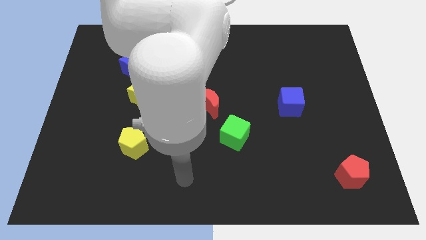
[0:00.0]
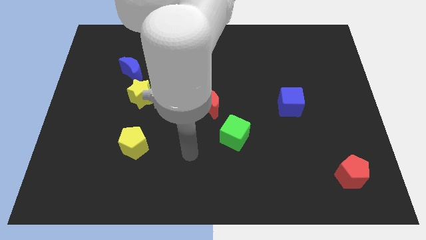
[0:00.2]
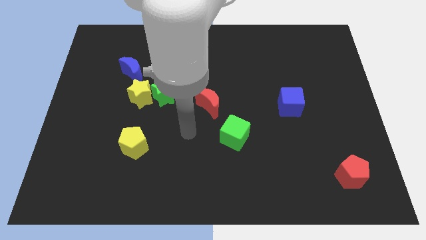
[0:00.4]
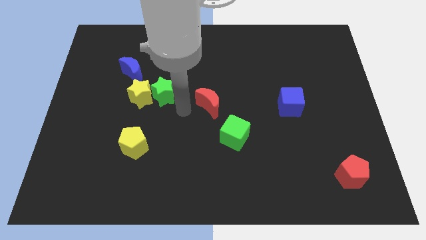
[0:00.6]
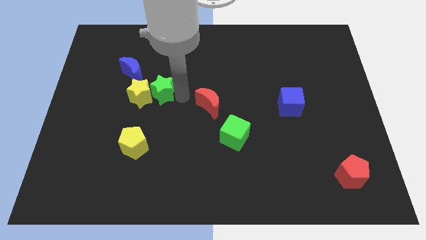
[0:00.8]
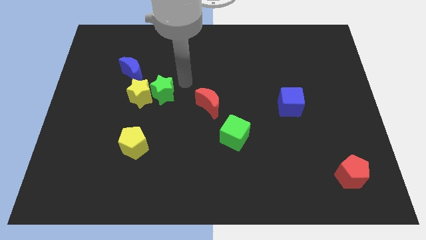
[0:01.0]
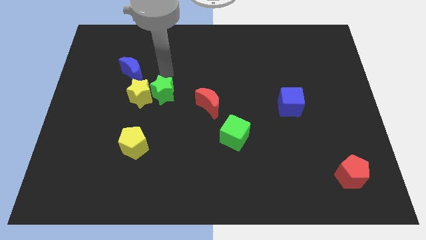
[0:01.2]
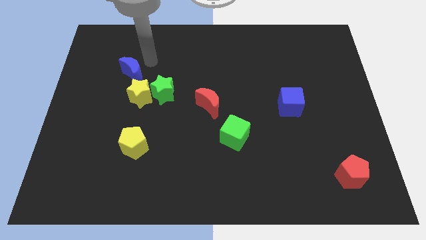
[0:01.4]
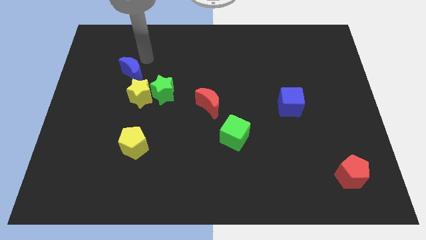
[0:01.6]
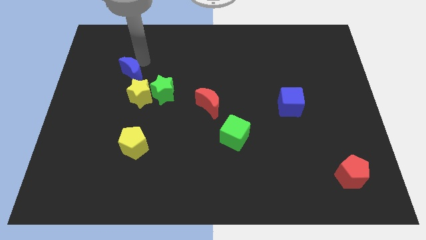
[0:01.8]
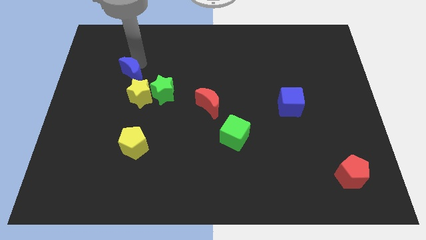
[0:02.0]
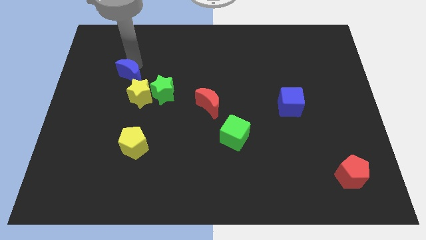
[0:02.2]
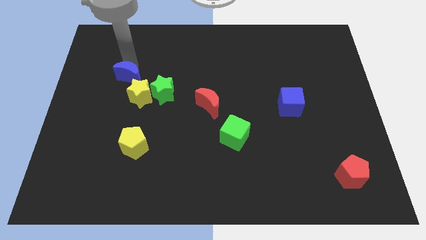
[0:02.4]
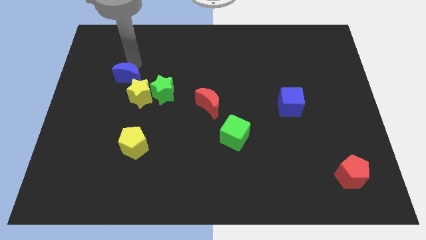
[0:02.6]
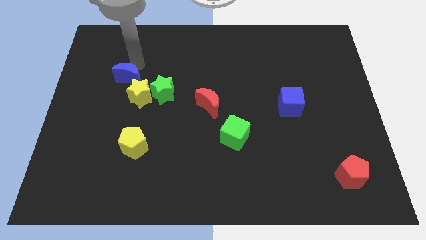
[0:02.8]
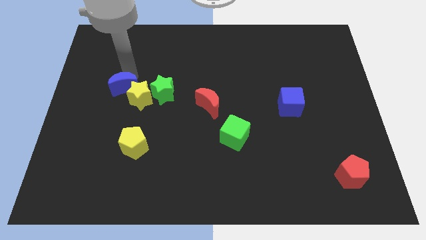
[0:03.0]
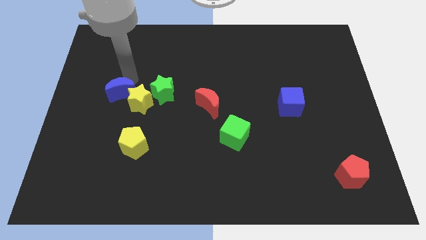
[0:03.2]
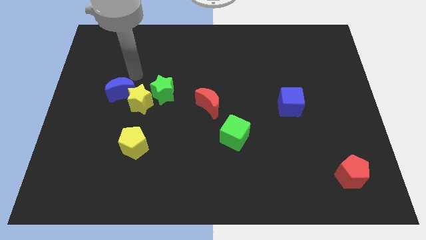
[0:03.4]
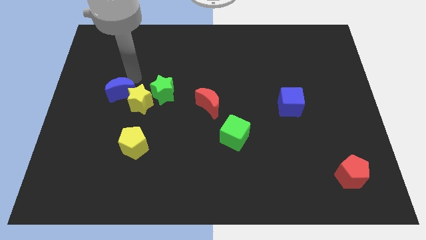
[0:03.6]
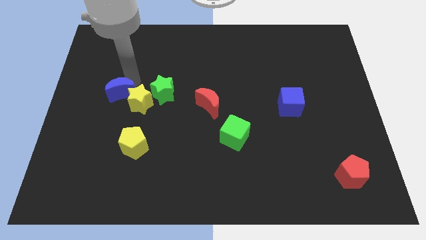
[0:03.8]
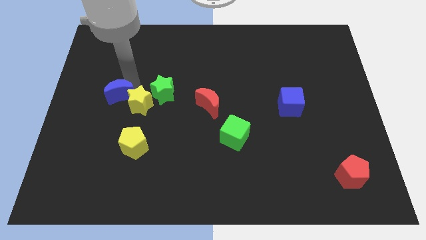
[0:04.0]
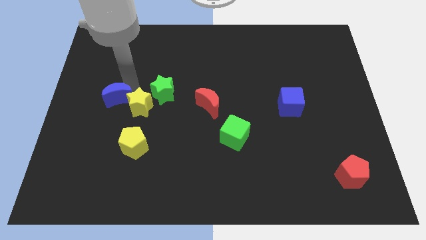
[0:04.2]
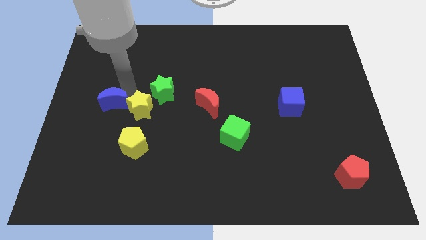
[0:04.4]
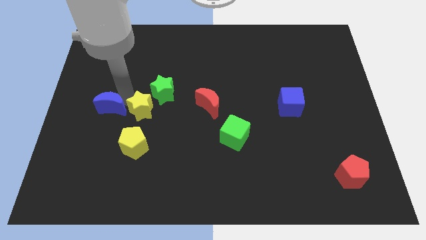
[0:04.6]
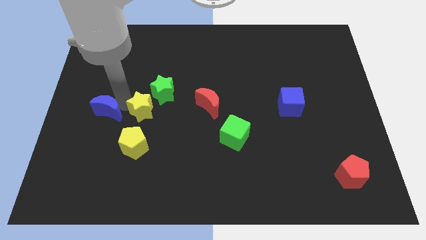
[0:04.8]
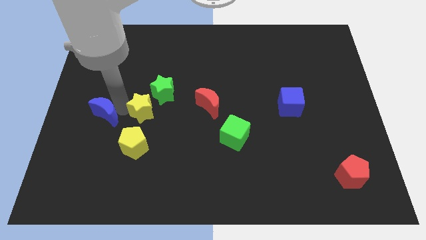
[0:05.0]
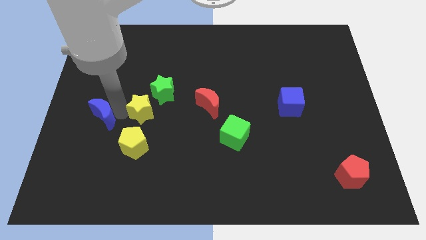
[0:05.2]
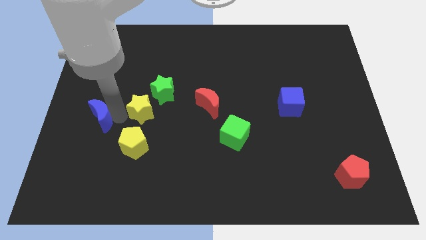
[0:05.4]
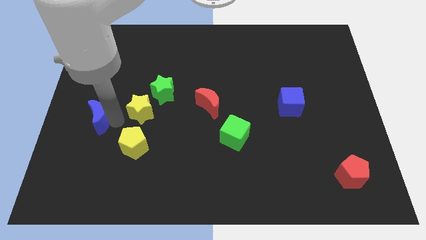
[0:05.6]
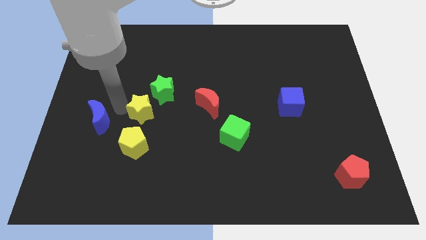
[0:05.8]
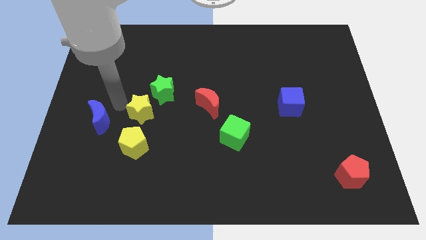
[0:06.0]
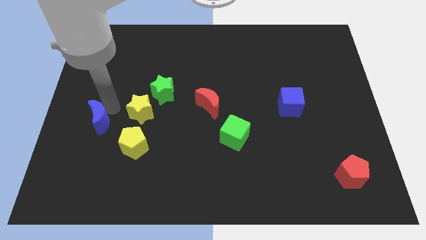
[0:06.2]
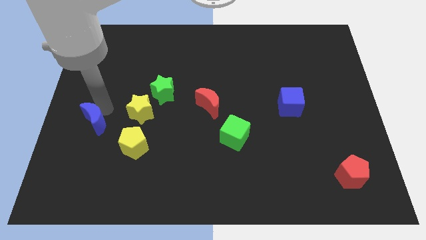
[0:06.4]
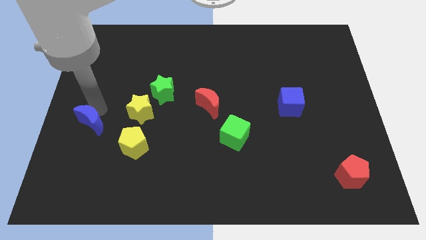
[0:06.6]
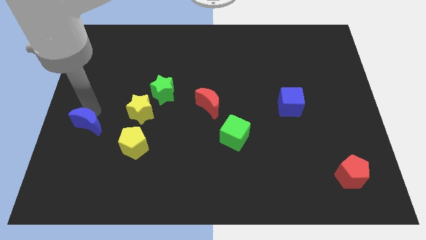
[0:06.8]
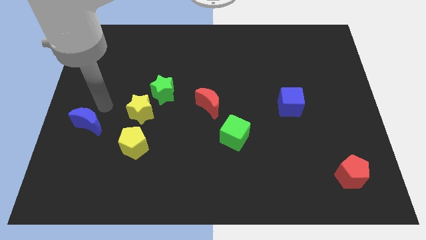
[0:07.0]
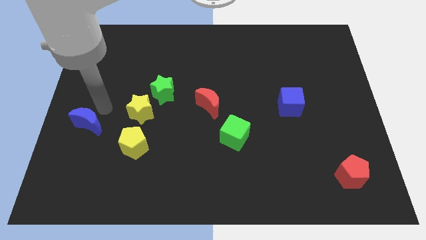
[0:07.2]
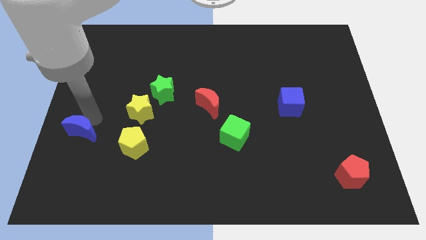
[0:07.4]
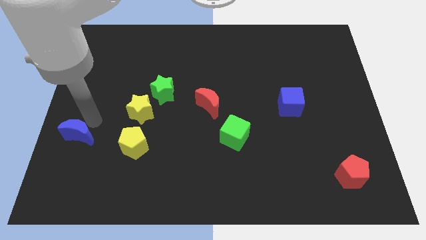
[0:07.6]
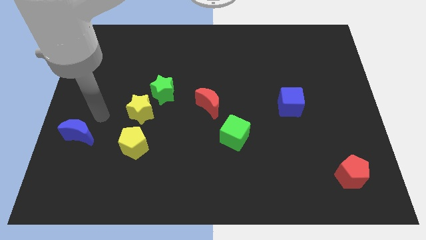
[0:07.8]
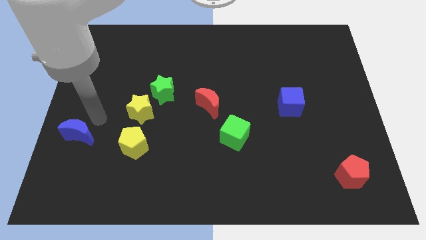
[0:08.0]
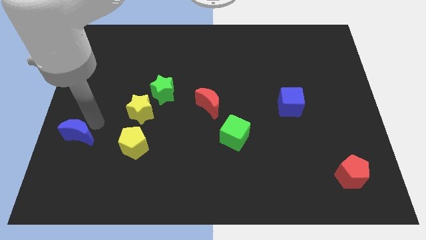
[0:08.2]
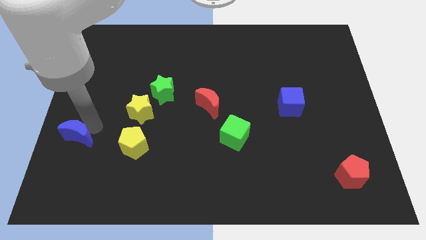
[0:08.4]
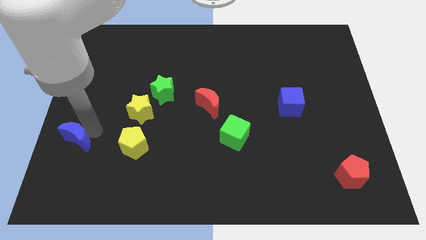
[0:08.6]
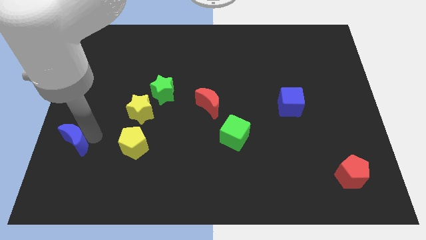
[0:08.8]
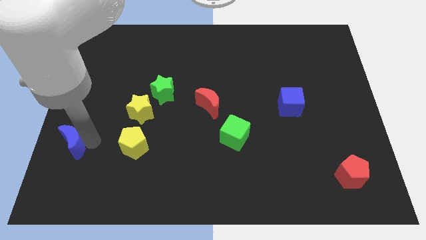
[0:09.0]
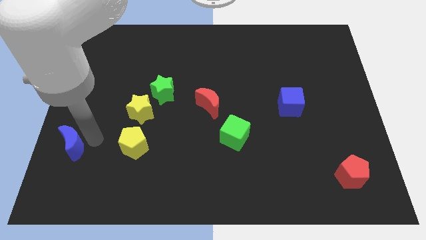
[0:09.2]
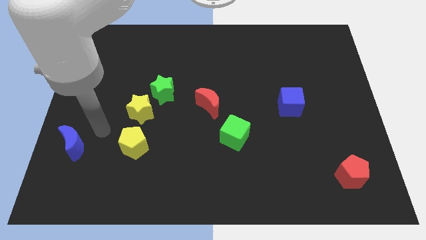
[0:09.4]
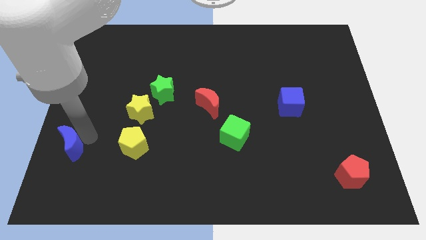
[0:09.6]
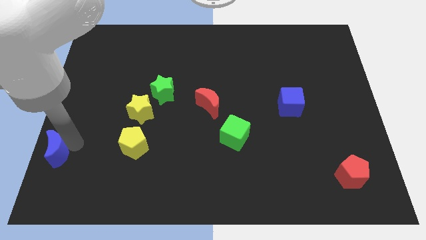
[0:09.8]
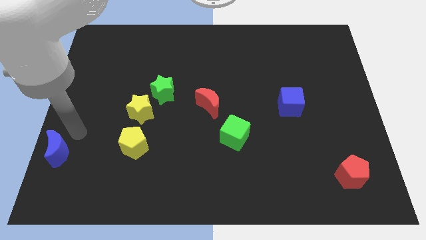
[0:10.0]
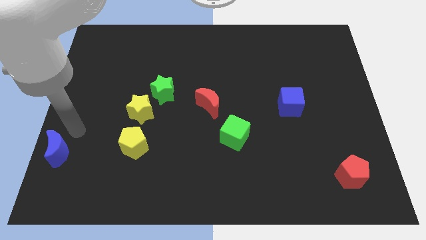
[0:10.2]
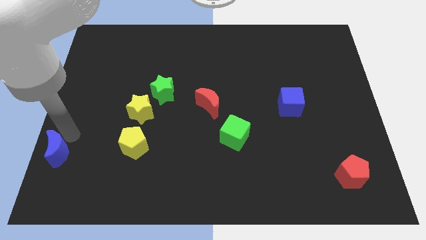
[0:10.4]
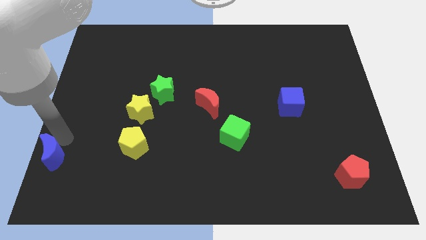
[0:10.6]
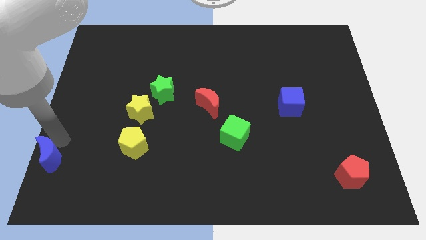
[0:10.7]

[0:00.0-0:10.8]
slide the blue moon to the bottom left corner

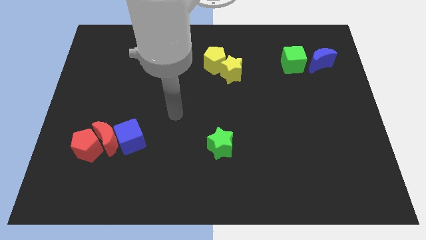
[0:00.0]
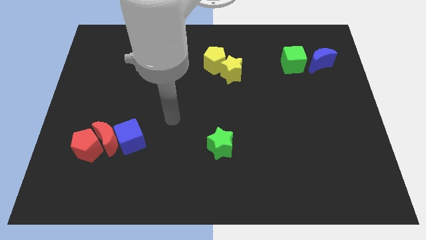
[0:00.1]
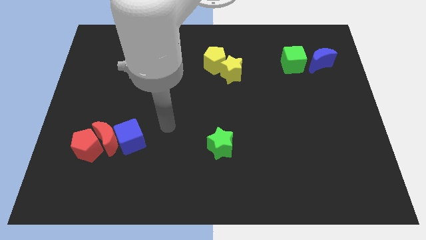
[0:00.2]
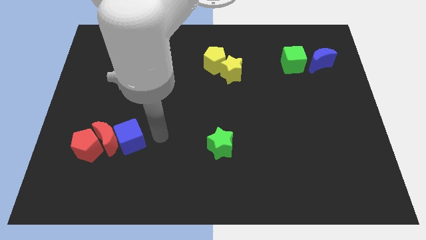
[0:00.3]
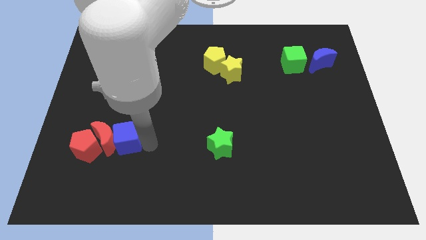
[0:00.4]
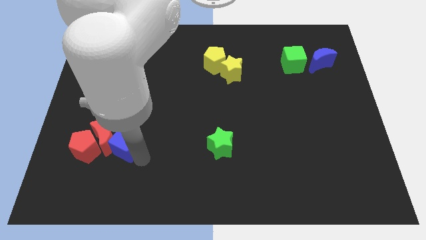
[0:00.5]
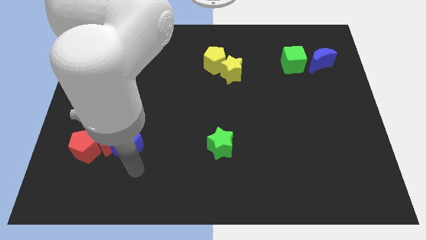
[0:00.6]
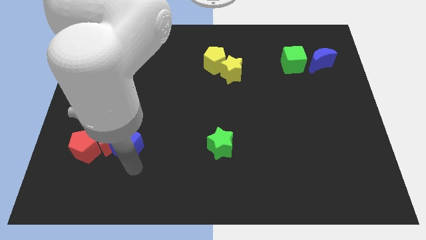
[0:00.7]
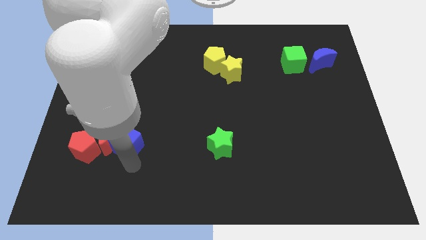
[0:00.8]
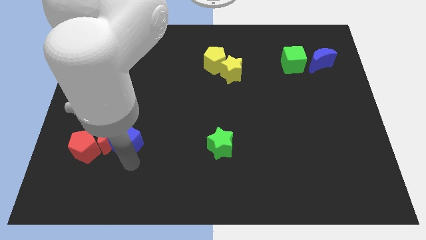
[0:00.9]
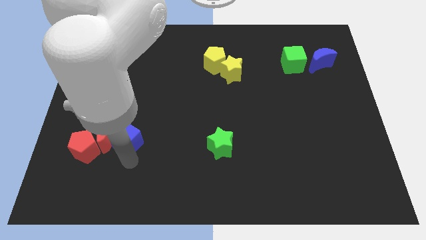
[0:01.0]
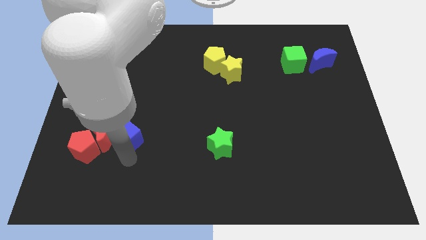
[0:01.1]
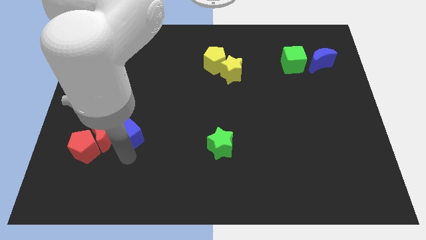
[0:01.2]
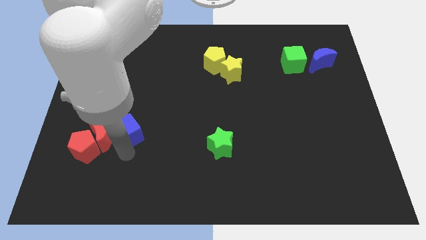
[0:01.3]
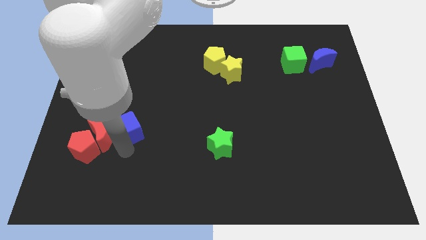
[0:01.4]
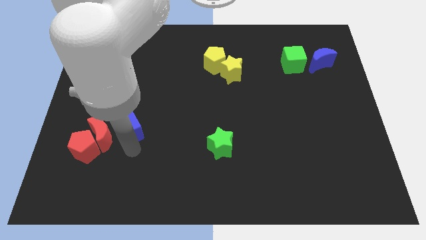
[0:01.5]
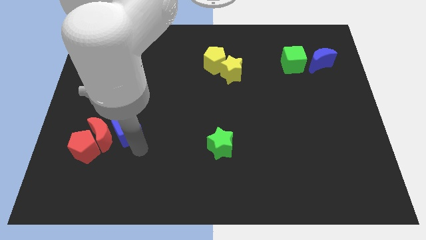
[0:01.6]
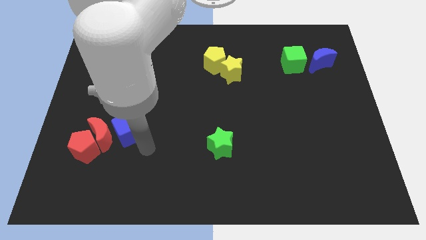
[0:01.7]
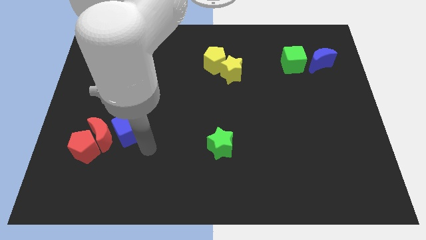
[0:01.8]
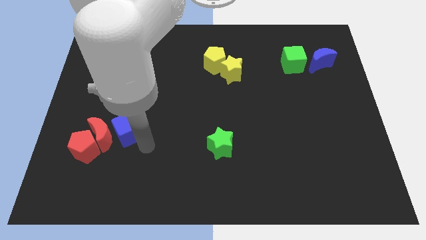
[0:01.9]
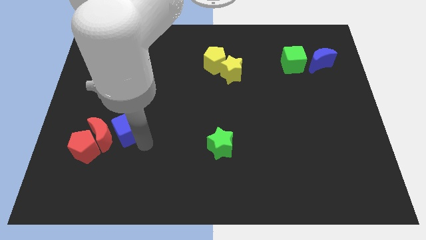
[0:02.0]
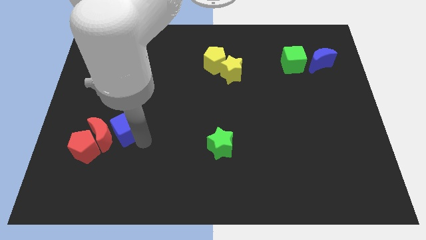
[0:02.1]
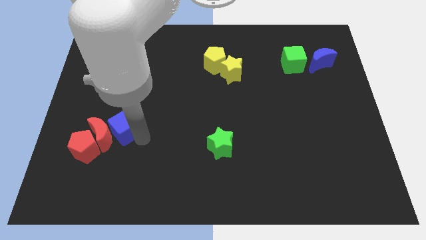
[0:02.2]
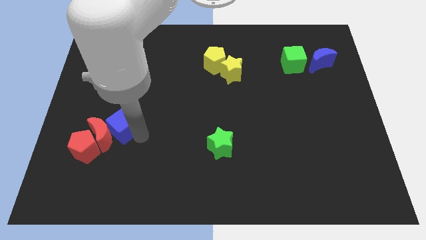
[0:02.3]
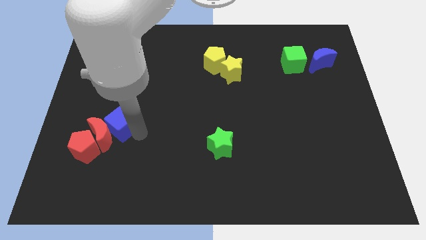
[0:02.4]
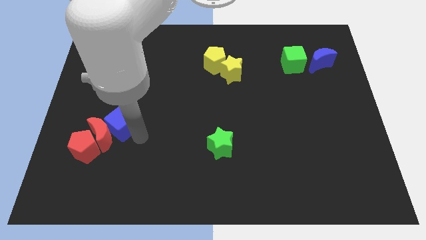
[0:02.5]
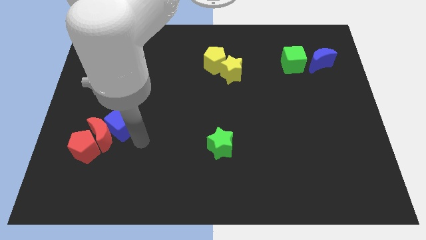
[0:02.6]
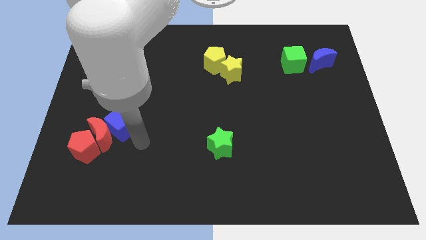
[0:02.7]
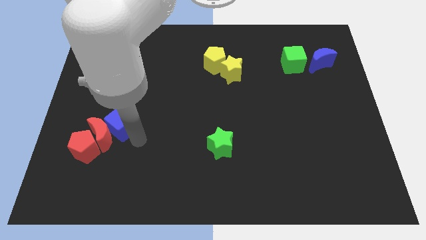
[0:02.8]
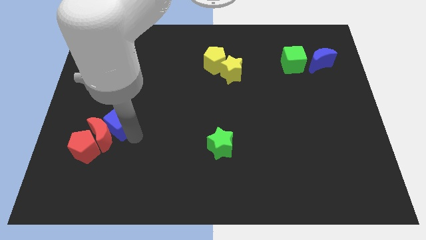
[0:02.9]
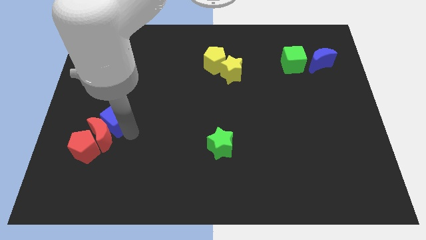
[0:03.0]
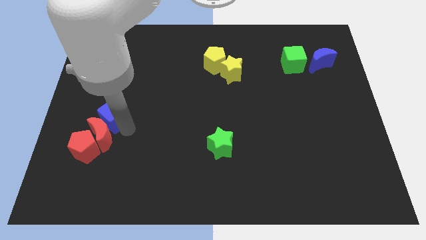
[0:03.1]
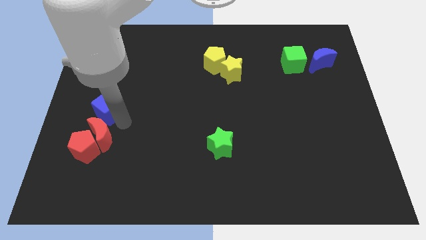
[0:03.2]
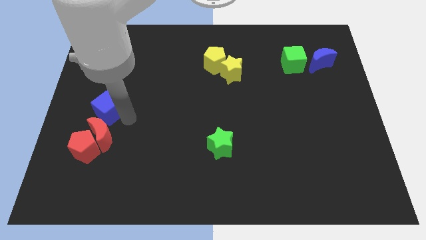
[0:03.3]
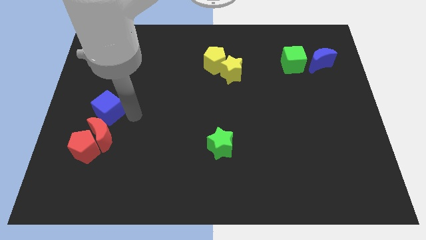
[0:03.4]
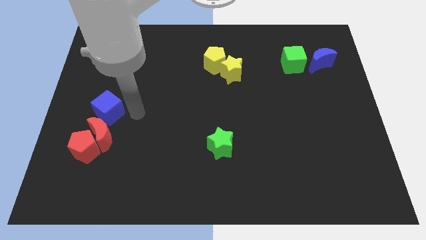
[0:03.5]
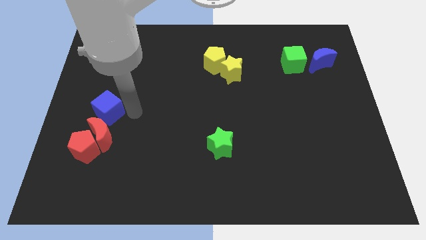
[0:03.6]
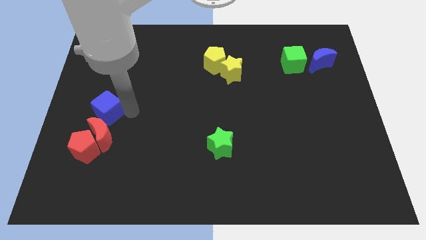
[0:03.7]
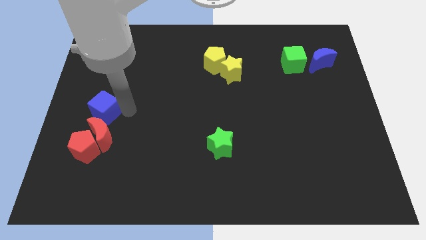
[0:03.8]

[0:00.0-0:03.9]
move the blue cube to the left side of the board
